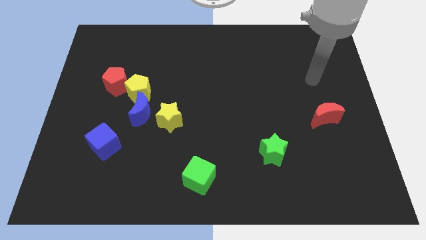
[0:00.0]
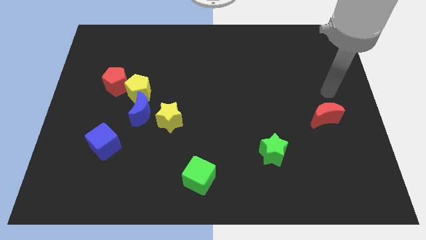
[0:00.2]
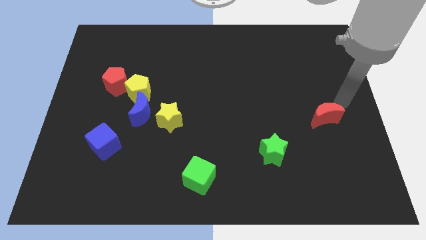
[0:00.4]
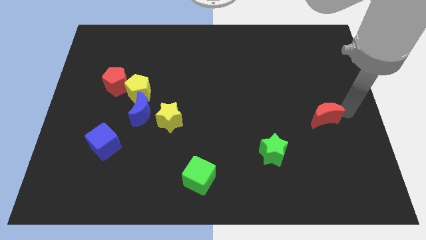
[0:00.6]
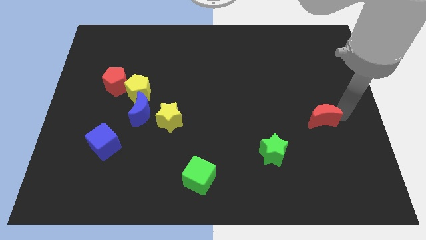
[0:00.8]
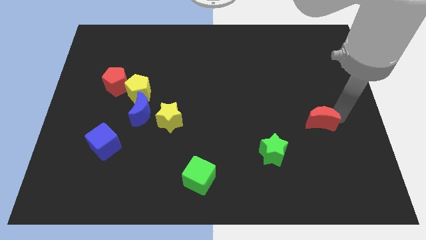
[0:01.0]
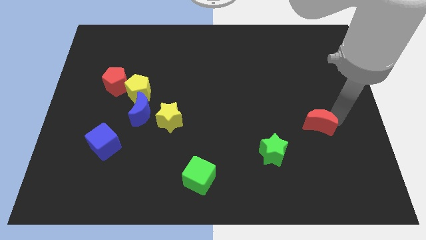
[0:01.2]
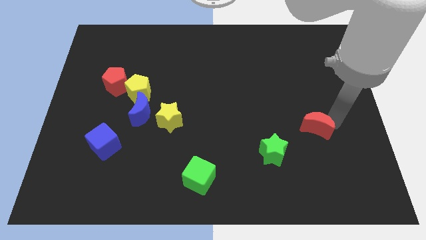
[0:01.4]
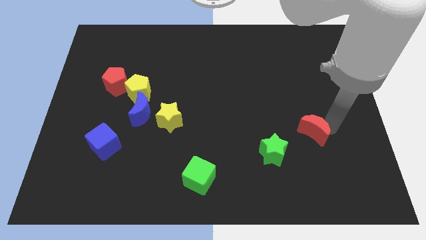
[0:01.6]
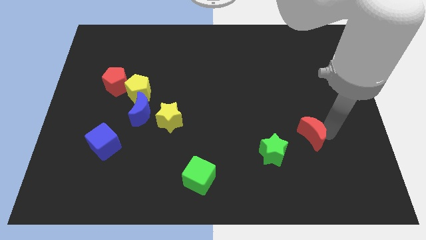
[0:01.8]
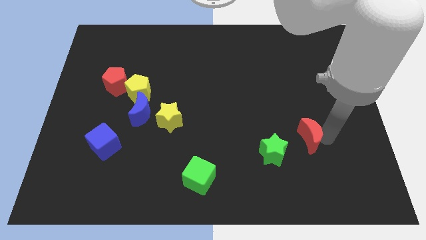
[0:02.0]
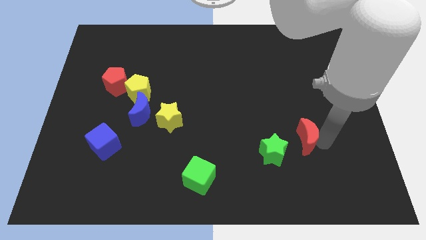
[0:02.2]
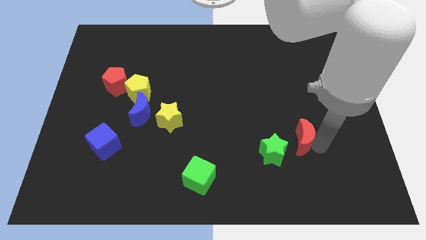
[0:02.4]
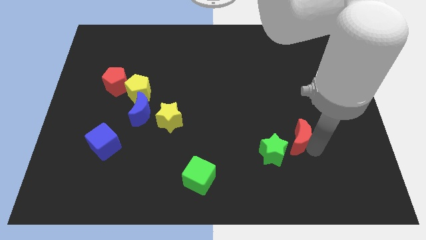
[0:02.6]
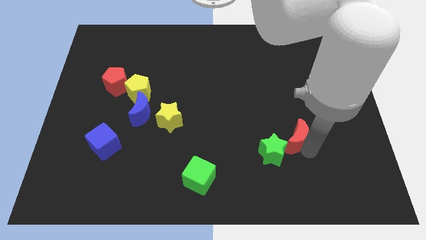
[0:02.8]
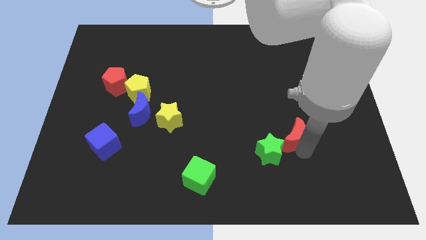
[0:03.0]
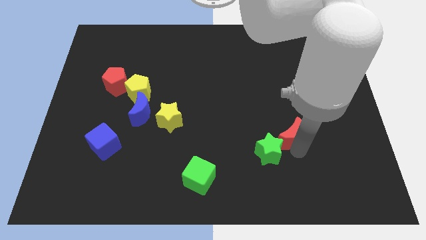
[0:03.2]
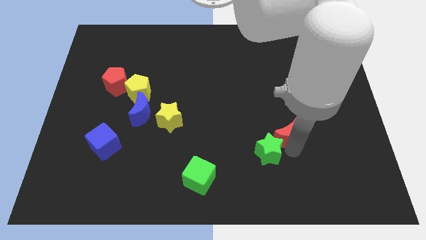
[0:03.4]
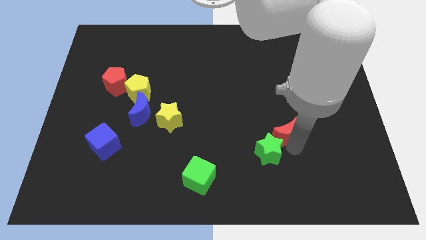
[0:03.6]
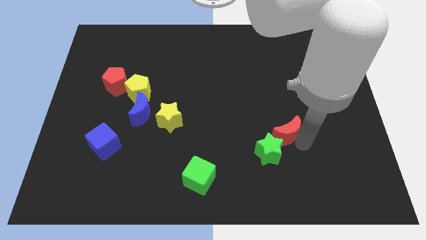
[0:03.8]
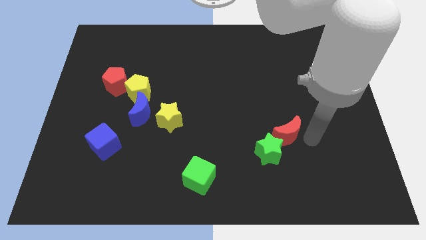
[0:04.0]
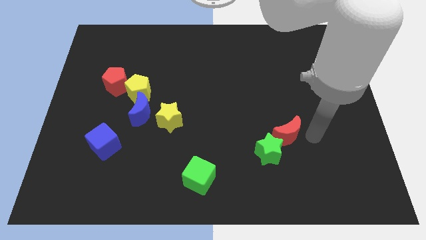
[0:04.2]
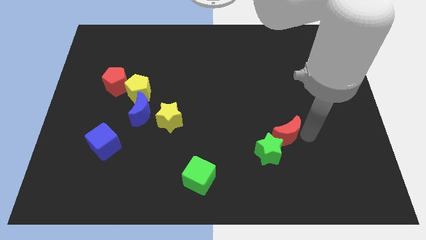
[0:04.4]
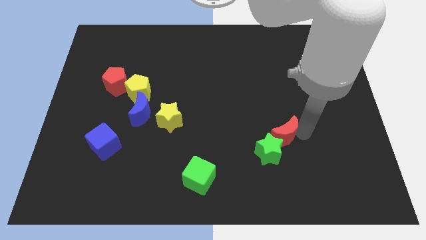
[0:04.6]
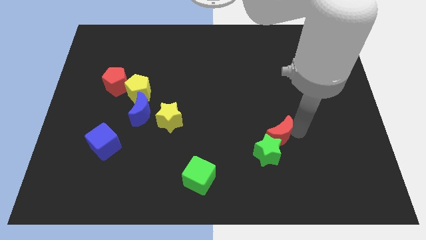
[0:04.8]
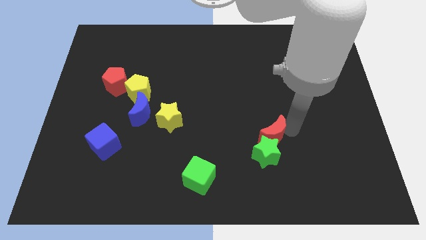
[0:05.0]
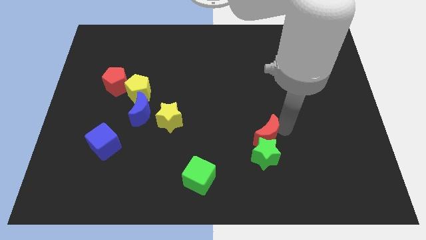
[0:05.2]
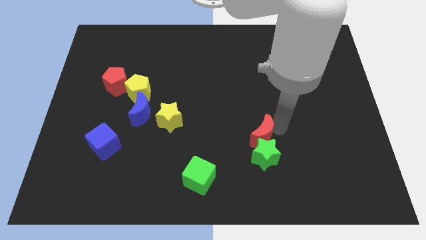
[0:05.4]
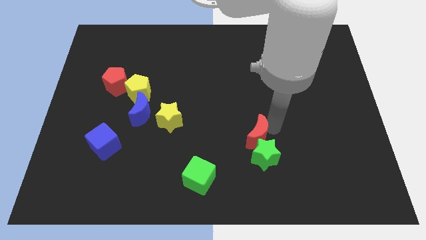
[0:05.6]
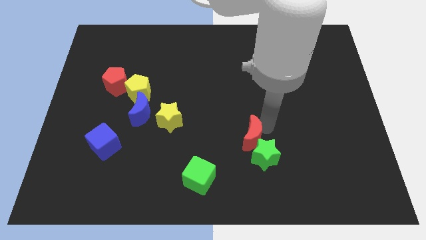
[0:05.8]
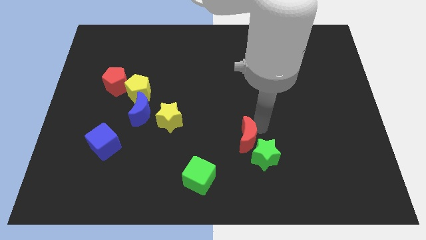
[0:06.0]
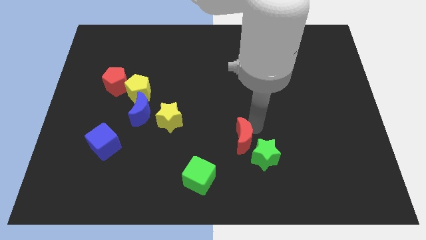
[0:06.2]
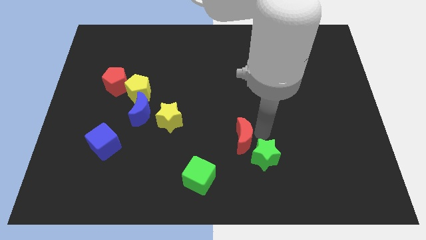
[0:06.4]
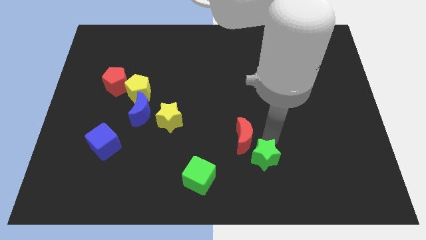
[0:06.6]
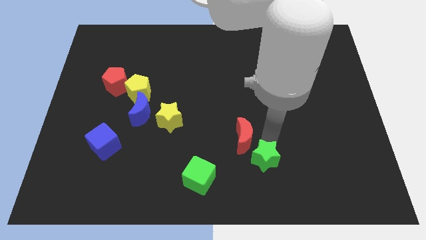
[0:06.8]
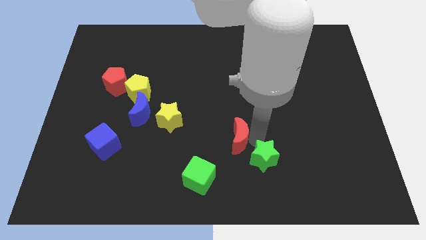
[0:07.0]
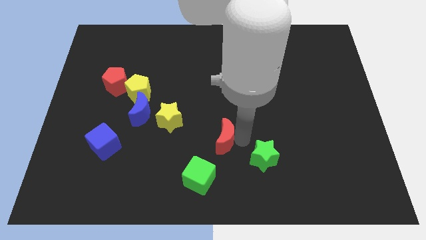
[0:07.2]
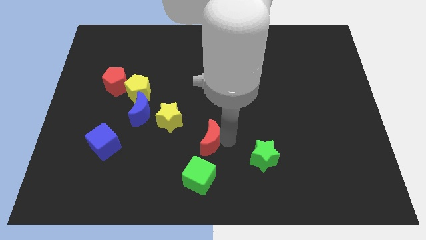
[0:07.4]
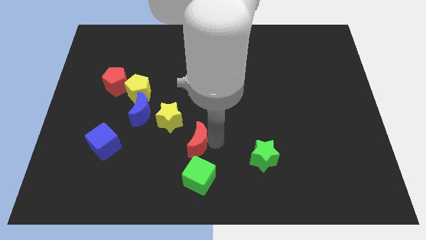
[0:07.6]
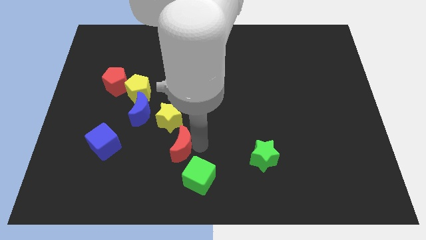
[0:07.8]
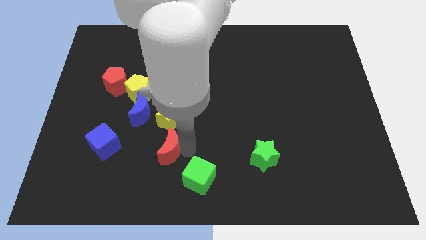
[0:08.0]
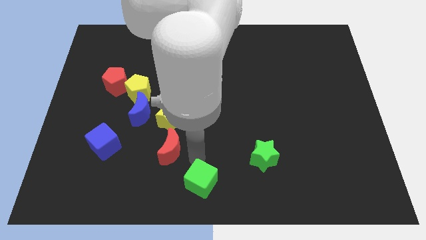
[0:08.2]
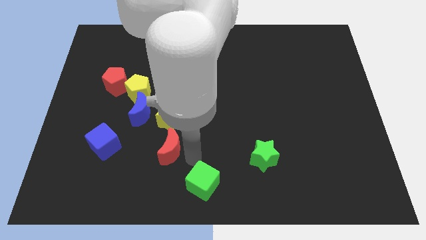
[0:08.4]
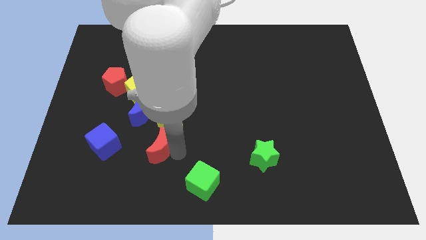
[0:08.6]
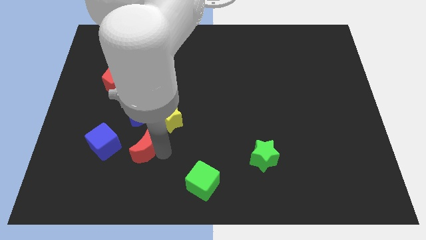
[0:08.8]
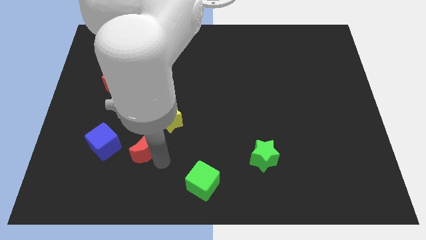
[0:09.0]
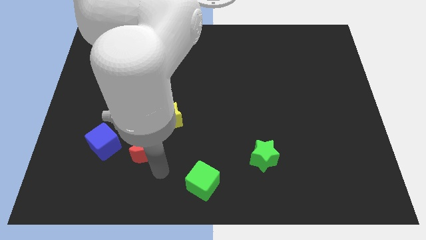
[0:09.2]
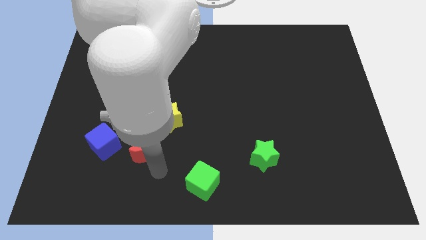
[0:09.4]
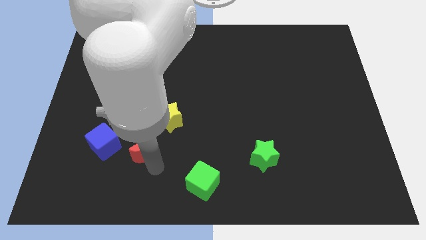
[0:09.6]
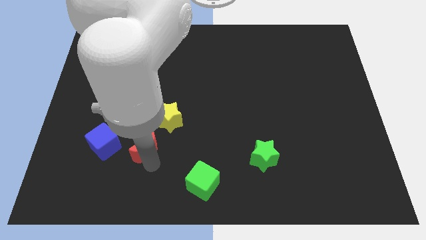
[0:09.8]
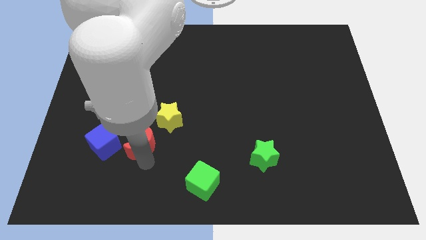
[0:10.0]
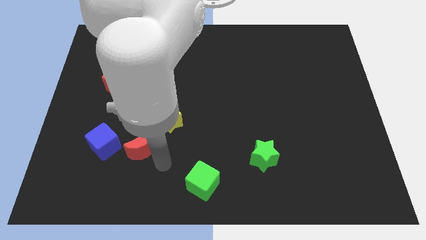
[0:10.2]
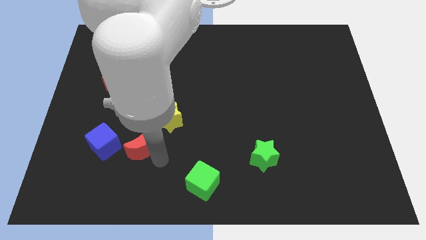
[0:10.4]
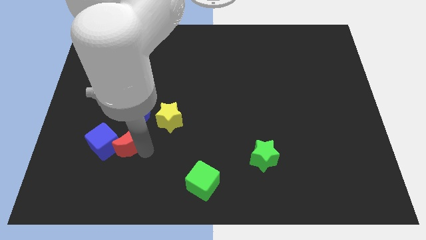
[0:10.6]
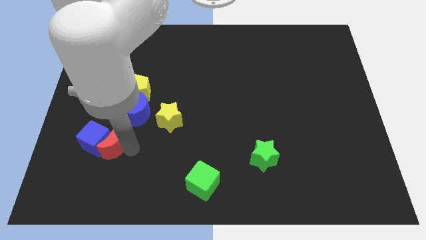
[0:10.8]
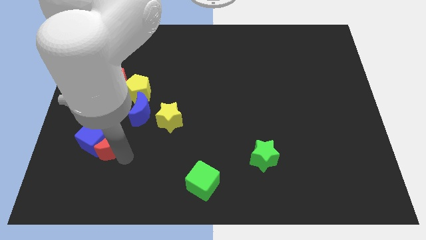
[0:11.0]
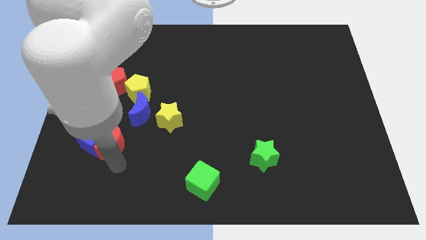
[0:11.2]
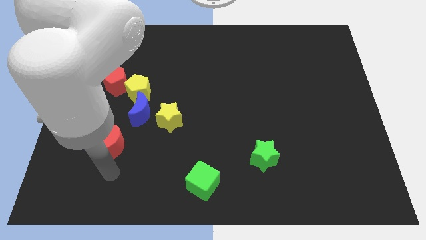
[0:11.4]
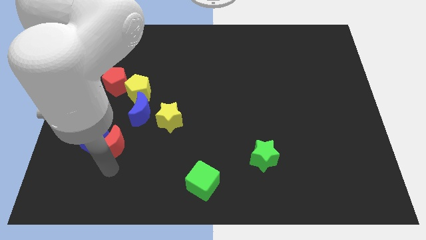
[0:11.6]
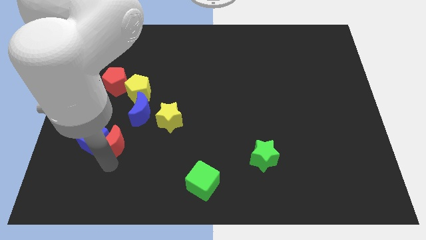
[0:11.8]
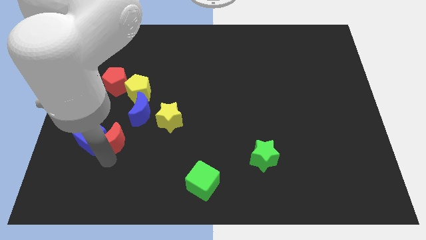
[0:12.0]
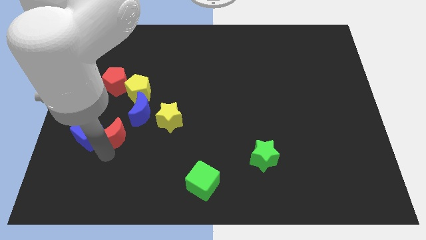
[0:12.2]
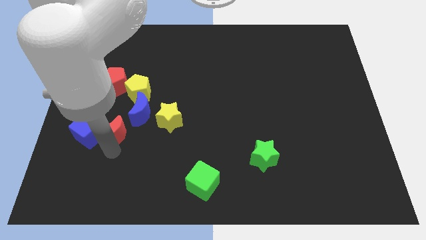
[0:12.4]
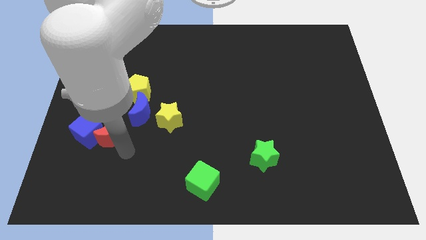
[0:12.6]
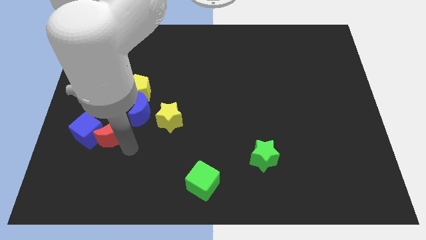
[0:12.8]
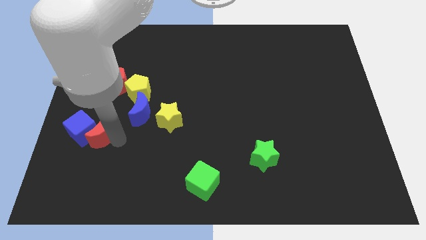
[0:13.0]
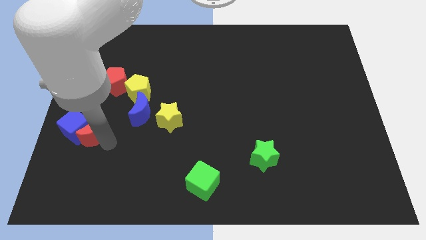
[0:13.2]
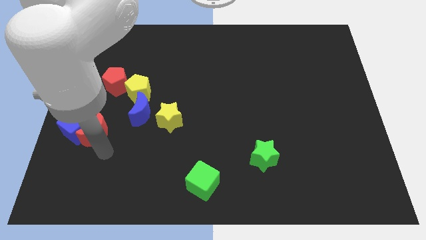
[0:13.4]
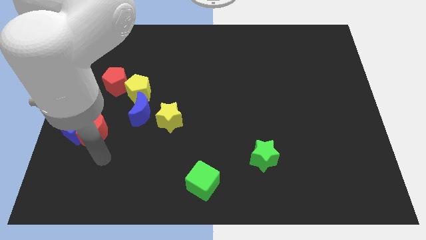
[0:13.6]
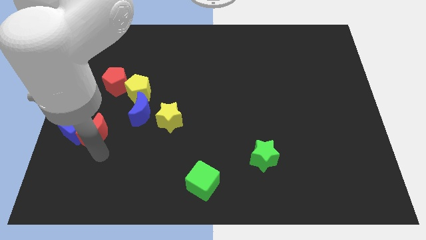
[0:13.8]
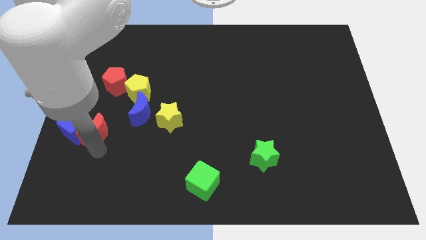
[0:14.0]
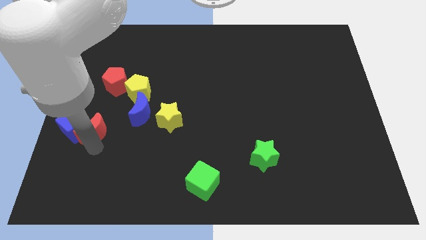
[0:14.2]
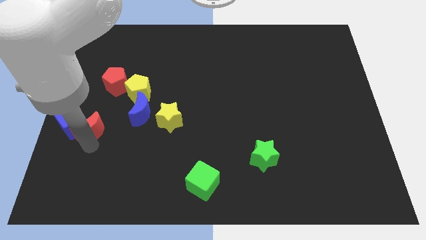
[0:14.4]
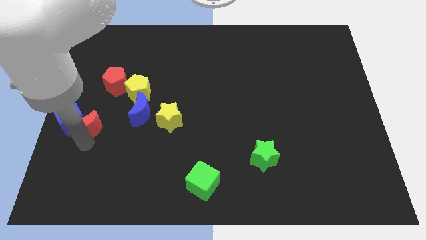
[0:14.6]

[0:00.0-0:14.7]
slide the red moon to the left side
